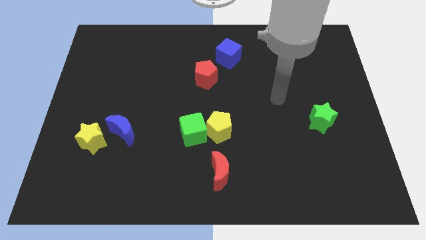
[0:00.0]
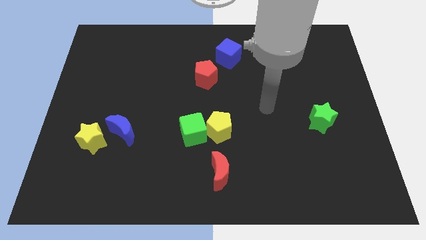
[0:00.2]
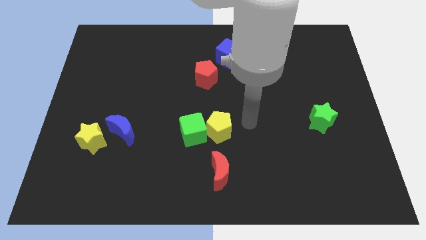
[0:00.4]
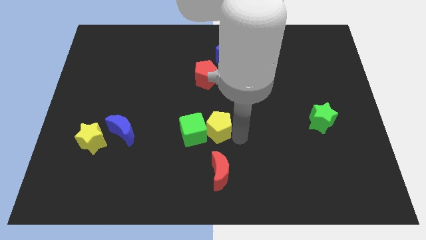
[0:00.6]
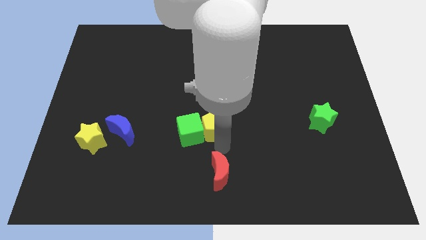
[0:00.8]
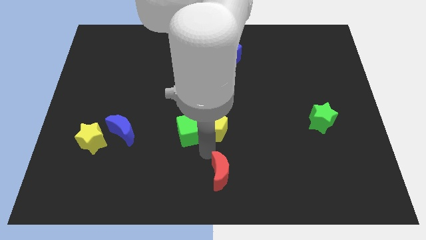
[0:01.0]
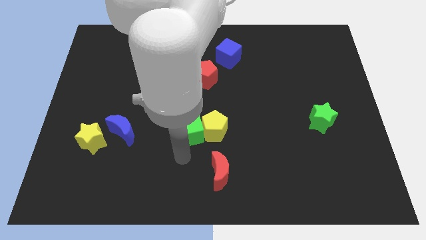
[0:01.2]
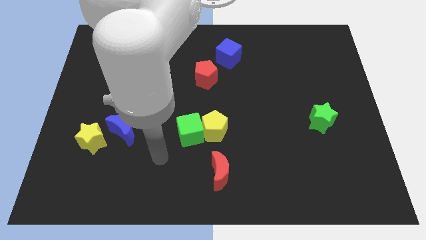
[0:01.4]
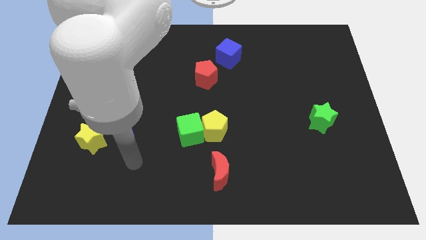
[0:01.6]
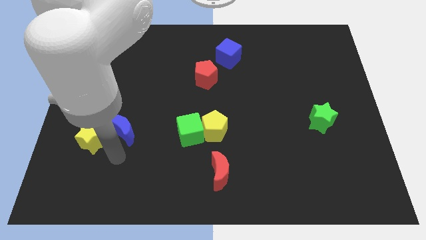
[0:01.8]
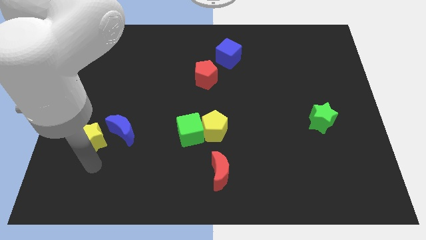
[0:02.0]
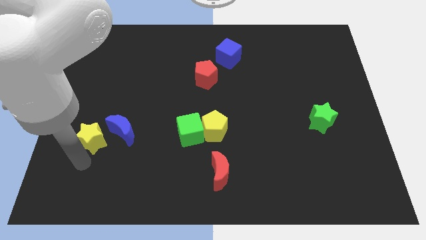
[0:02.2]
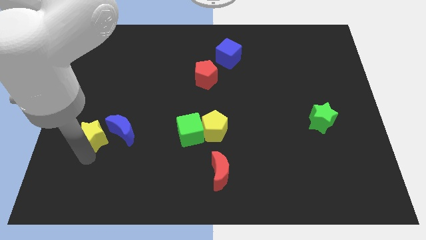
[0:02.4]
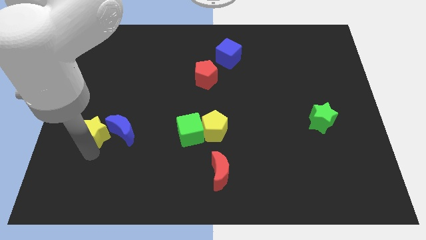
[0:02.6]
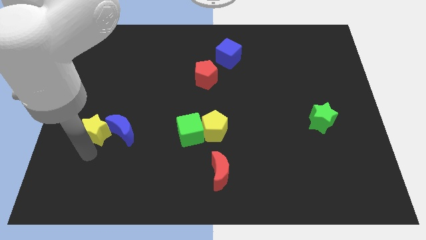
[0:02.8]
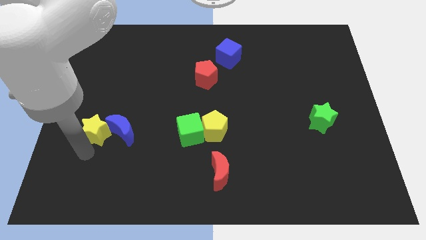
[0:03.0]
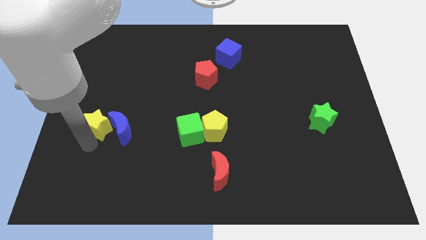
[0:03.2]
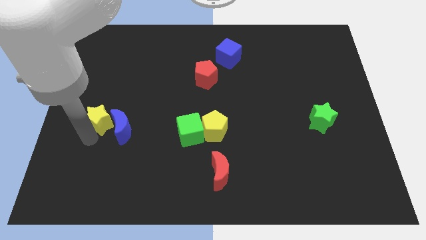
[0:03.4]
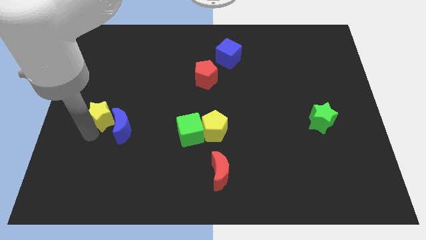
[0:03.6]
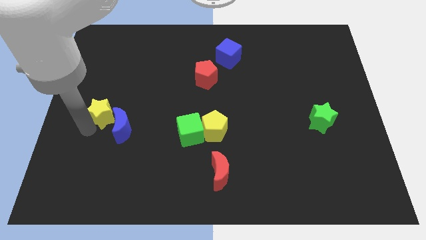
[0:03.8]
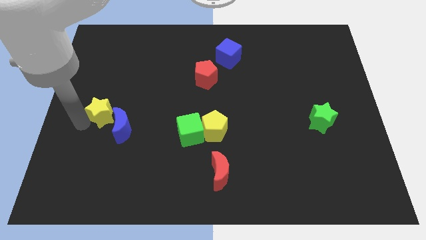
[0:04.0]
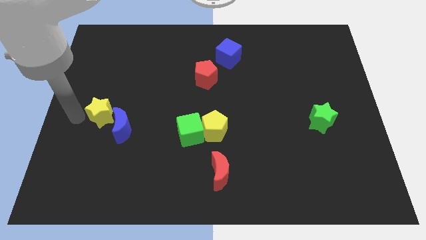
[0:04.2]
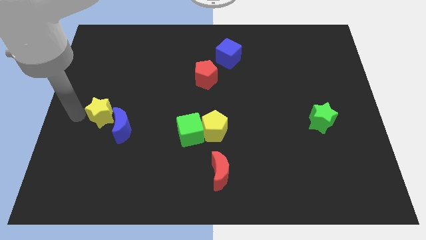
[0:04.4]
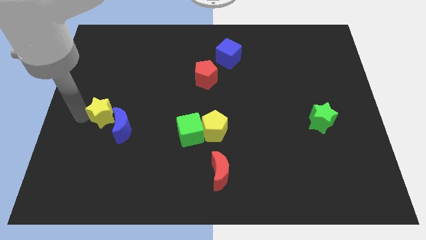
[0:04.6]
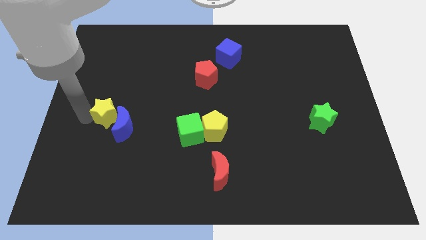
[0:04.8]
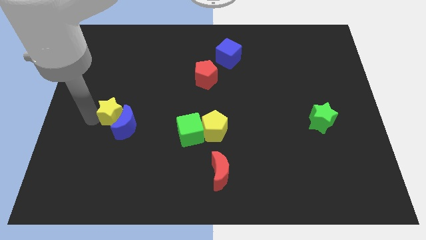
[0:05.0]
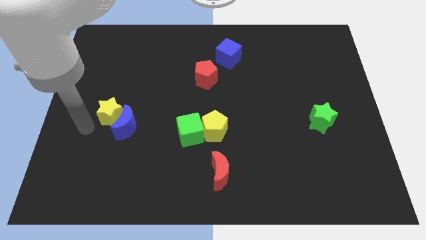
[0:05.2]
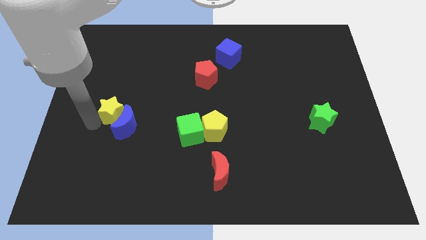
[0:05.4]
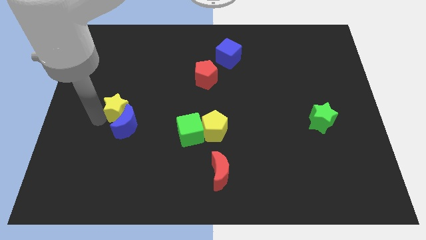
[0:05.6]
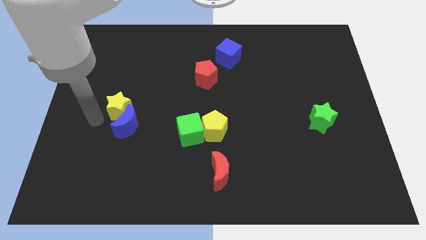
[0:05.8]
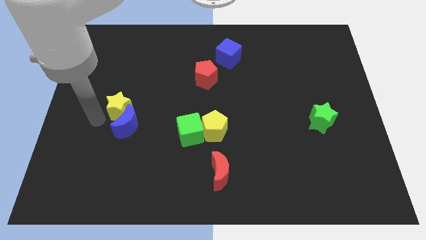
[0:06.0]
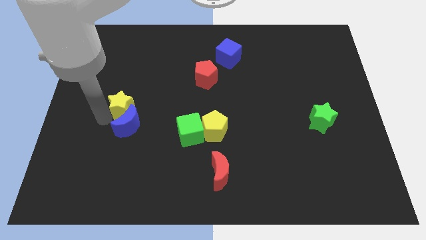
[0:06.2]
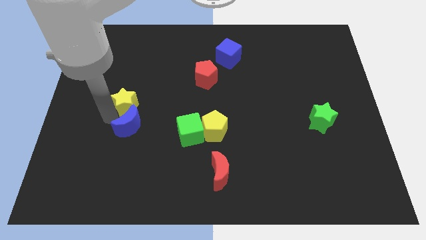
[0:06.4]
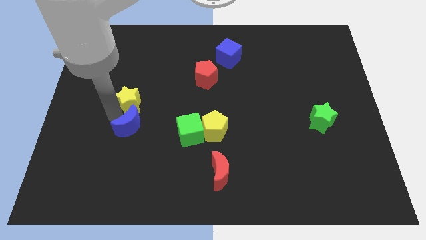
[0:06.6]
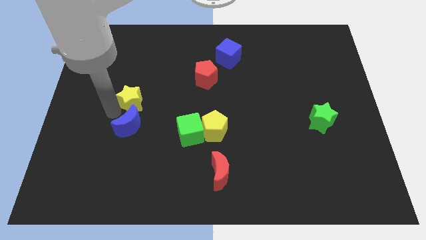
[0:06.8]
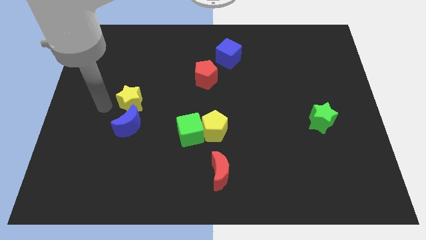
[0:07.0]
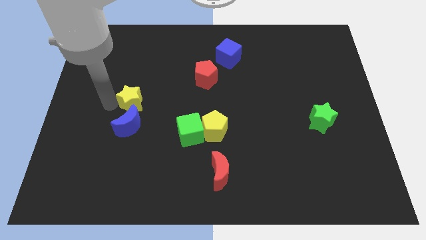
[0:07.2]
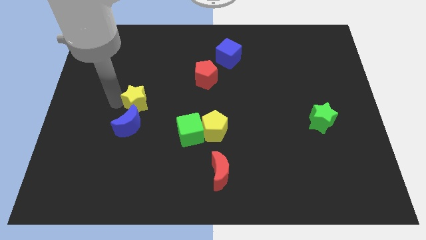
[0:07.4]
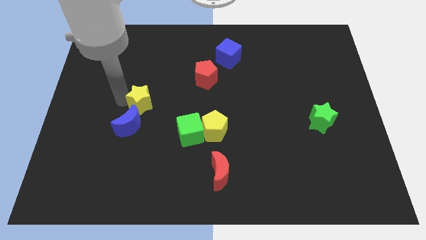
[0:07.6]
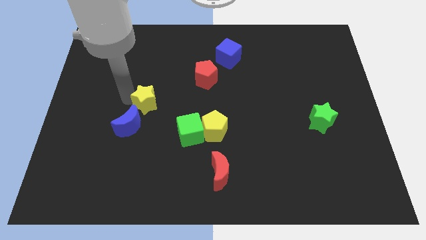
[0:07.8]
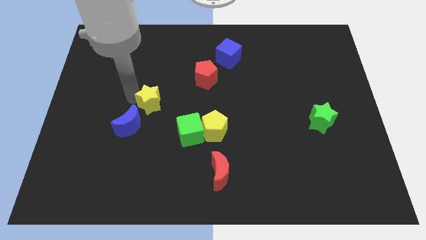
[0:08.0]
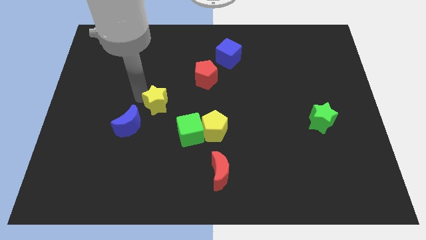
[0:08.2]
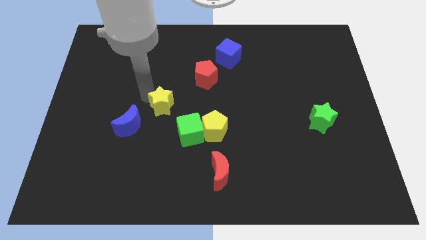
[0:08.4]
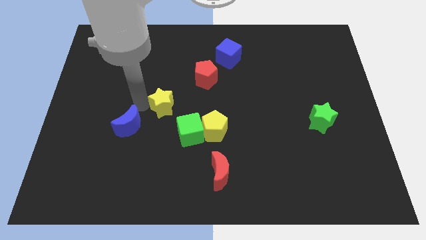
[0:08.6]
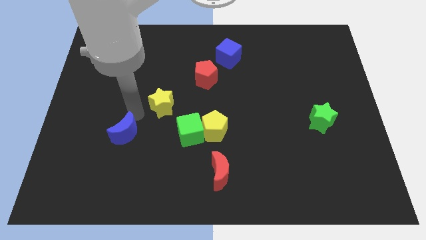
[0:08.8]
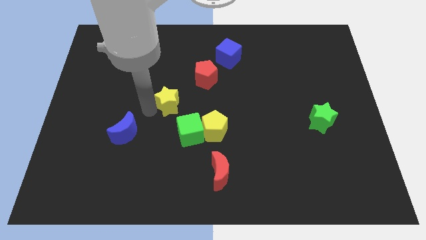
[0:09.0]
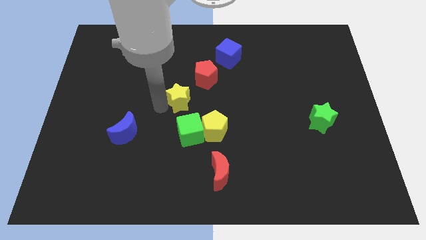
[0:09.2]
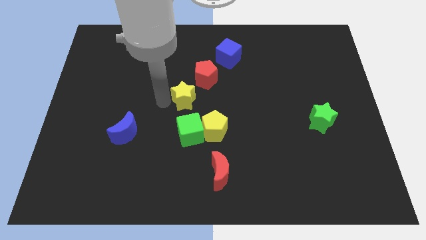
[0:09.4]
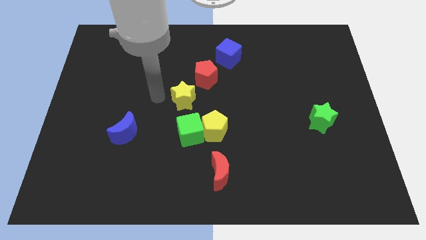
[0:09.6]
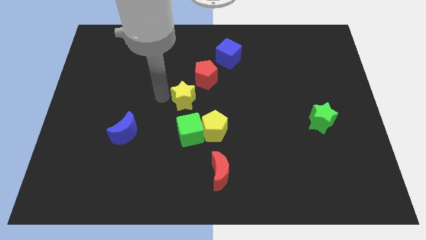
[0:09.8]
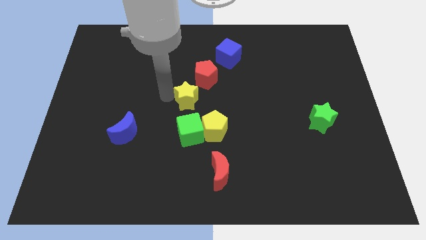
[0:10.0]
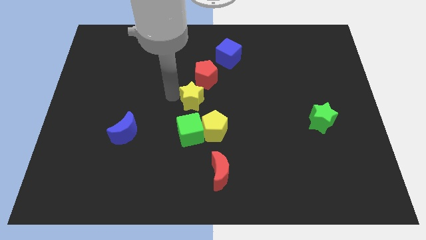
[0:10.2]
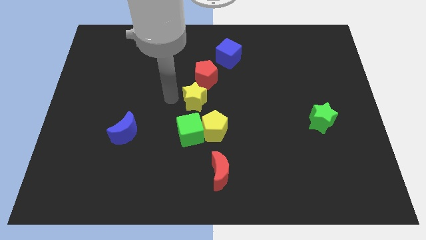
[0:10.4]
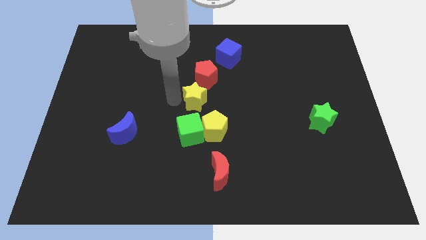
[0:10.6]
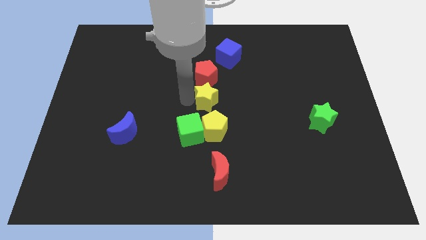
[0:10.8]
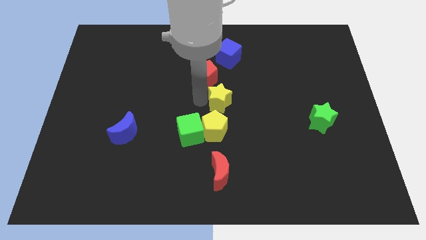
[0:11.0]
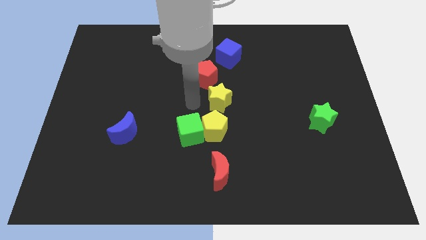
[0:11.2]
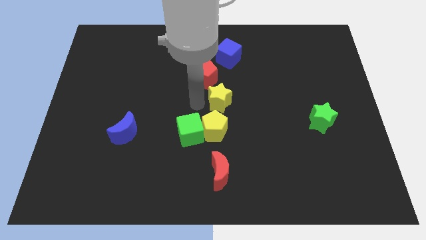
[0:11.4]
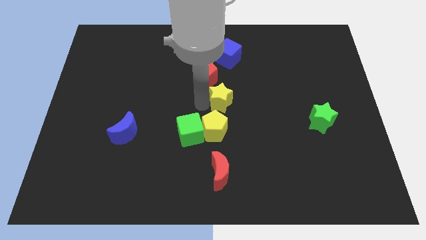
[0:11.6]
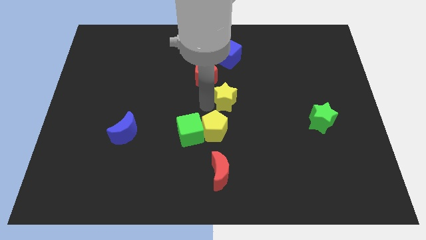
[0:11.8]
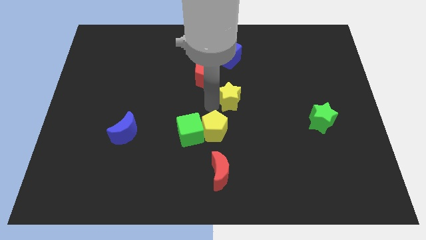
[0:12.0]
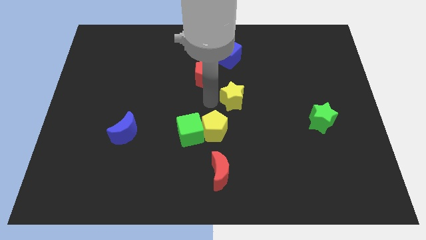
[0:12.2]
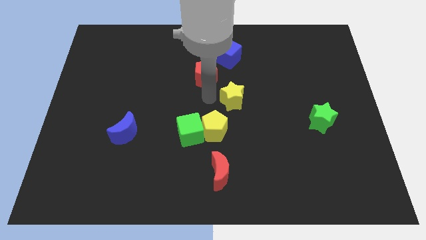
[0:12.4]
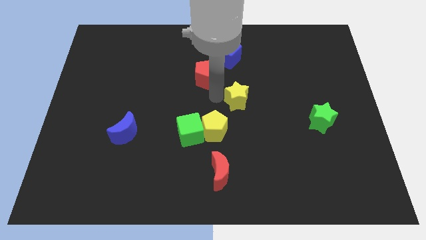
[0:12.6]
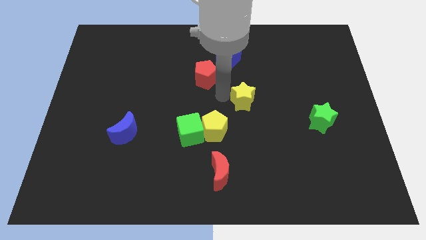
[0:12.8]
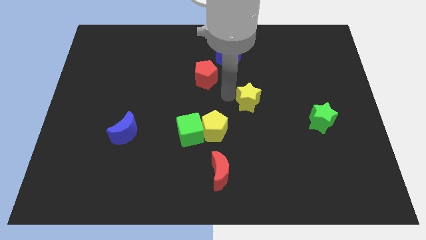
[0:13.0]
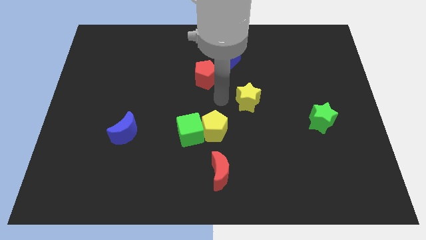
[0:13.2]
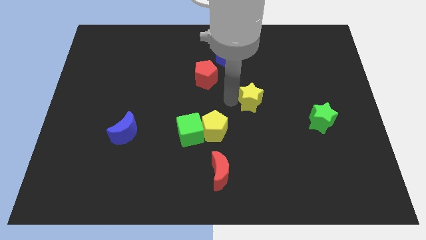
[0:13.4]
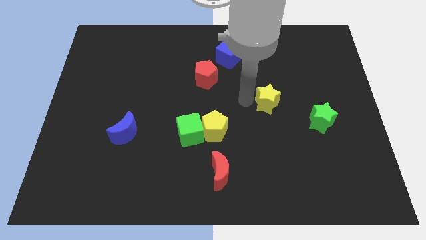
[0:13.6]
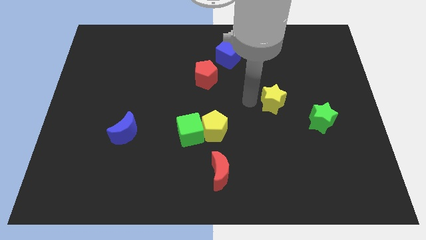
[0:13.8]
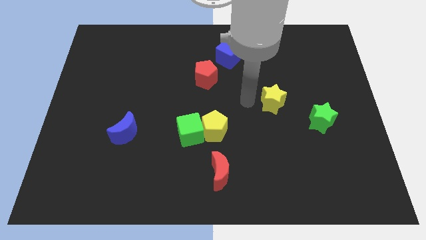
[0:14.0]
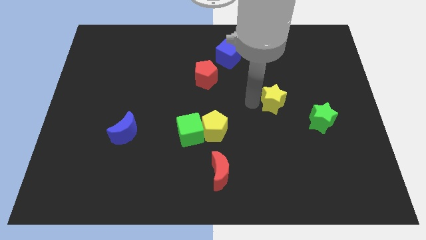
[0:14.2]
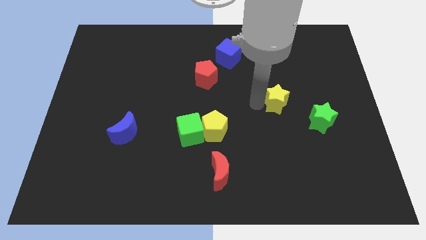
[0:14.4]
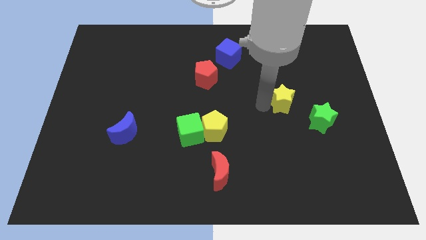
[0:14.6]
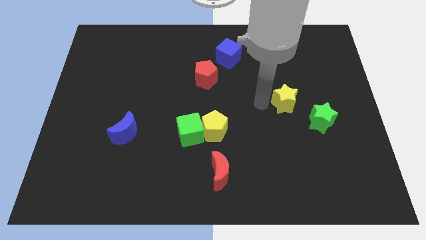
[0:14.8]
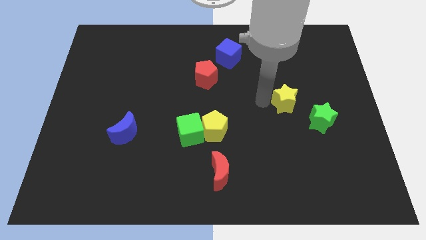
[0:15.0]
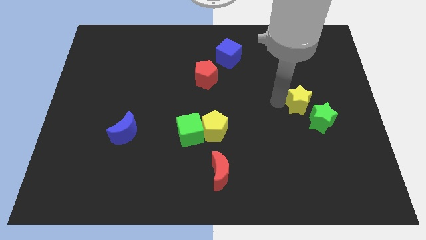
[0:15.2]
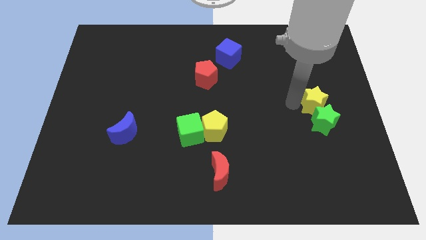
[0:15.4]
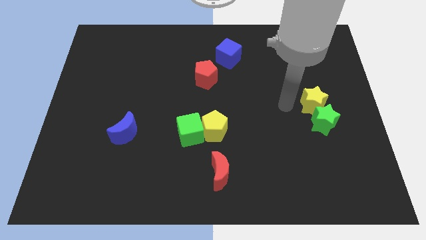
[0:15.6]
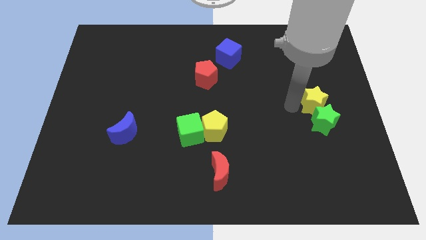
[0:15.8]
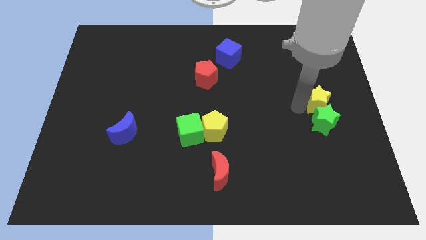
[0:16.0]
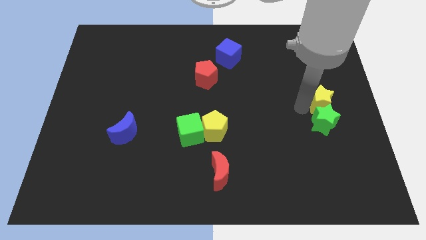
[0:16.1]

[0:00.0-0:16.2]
move the yellow star to the center right
